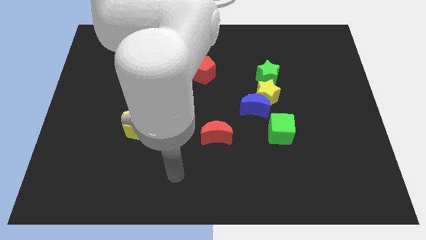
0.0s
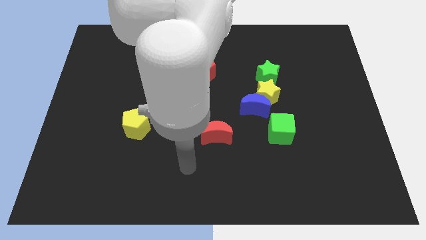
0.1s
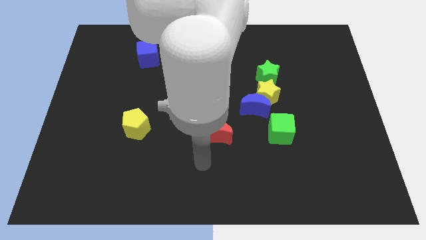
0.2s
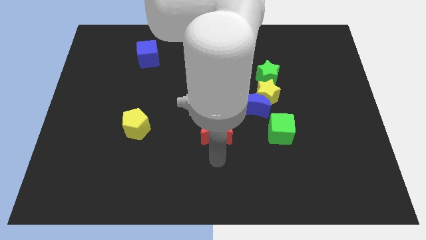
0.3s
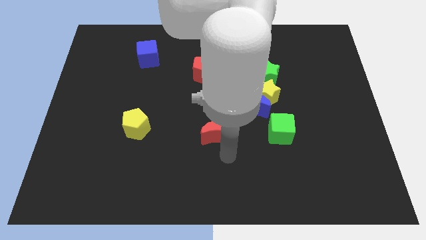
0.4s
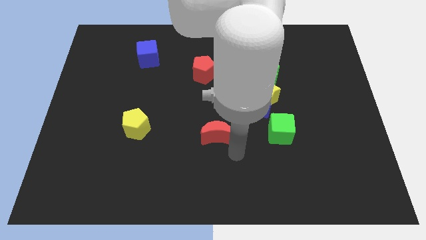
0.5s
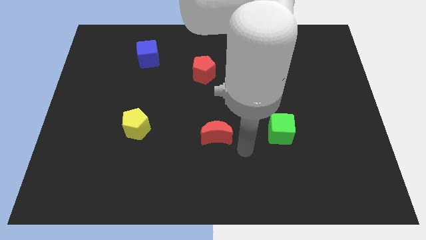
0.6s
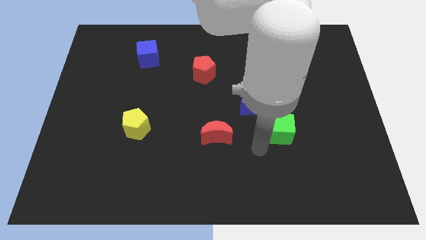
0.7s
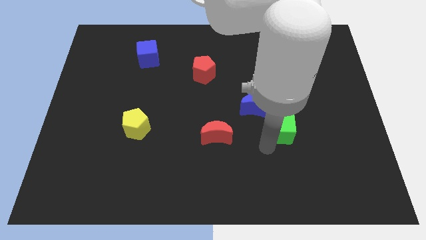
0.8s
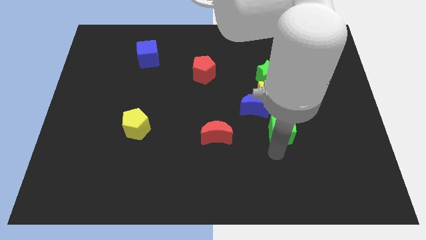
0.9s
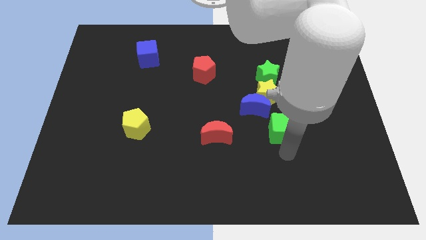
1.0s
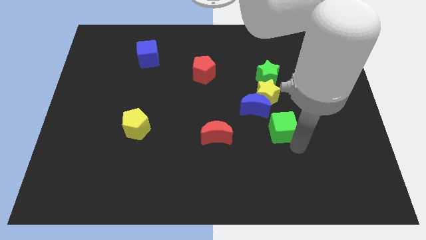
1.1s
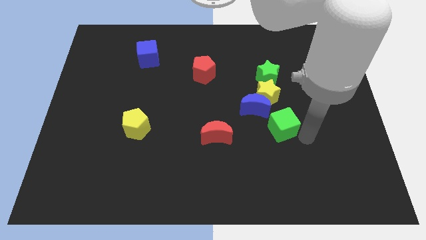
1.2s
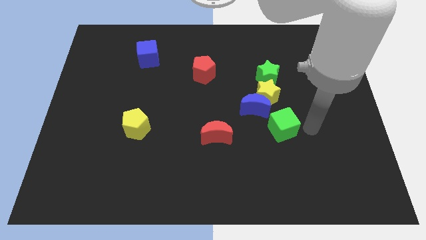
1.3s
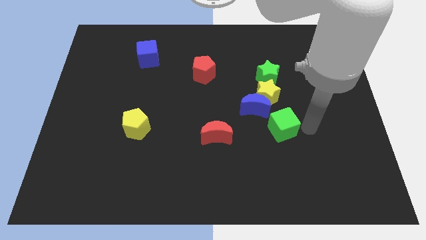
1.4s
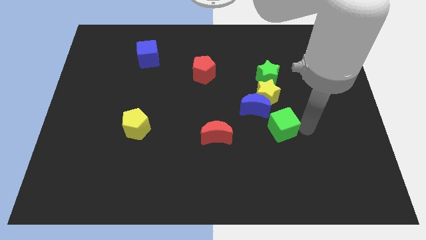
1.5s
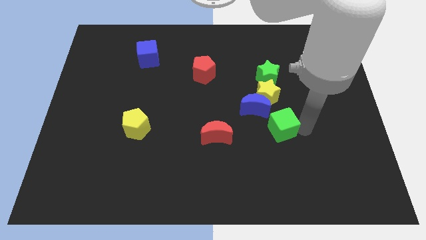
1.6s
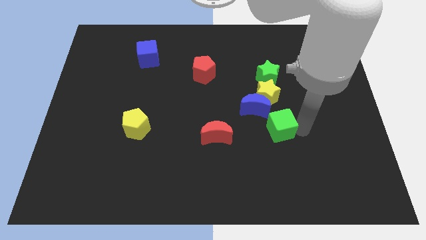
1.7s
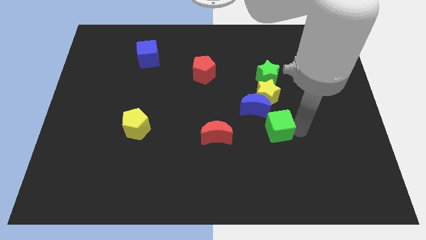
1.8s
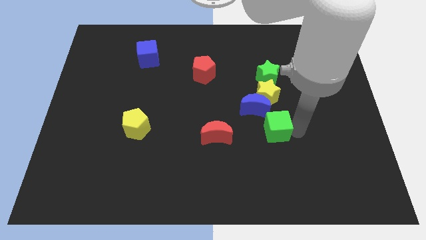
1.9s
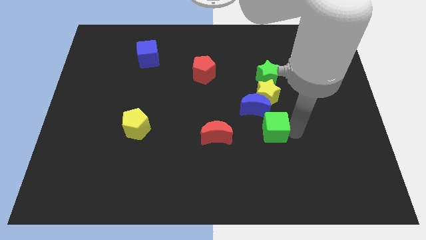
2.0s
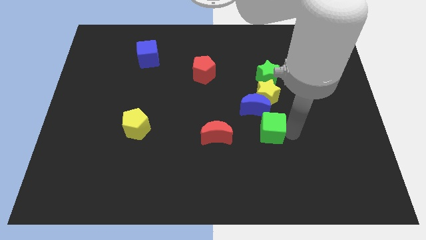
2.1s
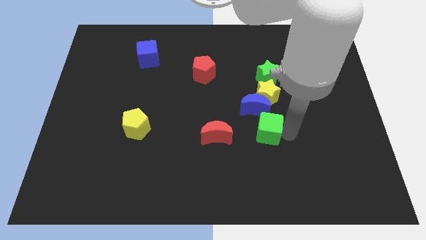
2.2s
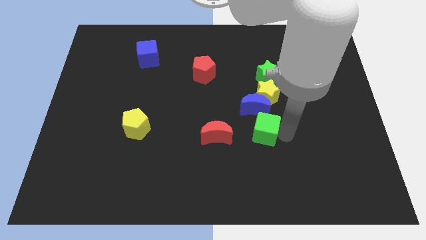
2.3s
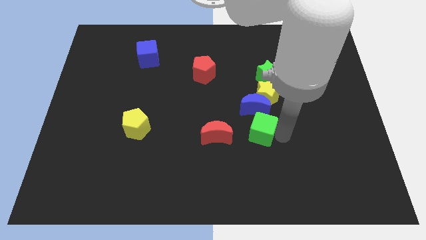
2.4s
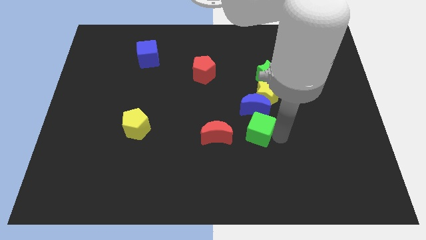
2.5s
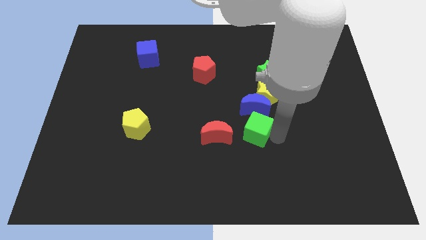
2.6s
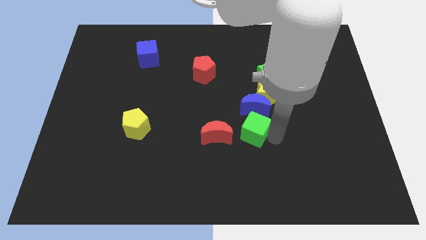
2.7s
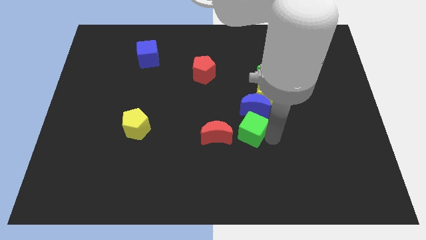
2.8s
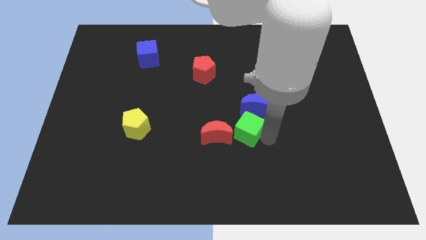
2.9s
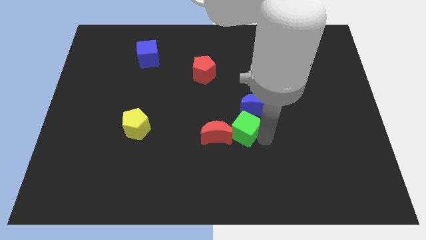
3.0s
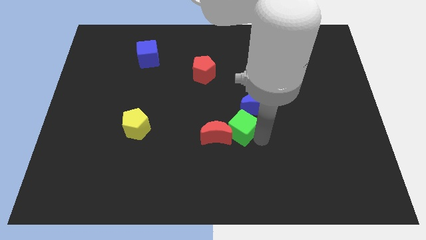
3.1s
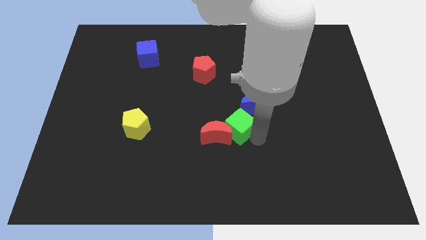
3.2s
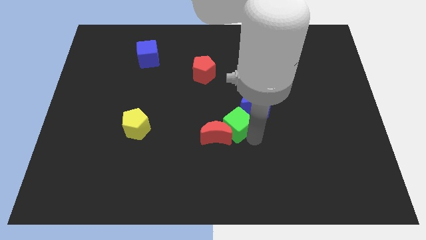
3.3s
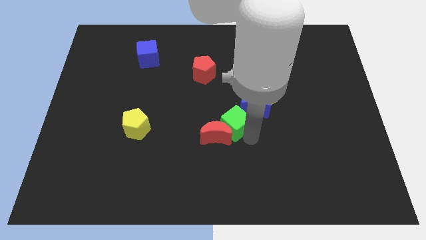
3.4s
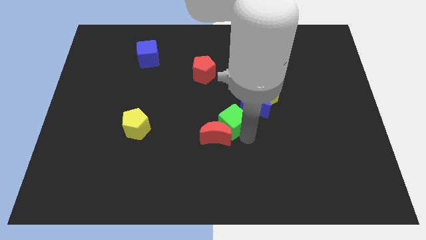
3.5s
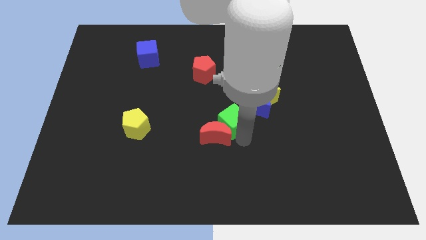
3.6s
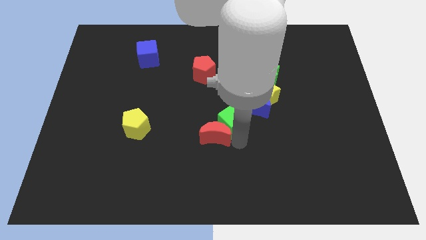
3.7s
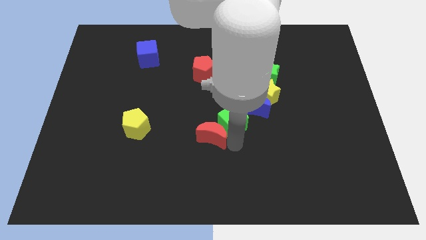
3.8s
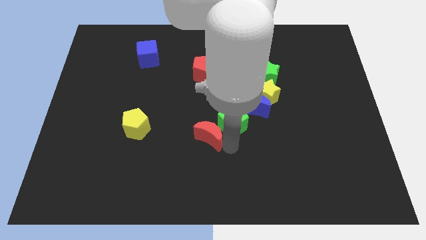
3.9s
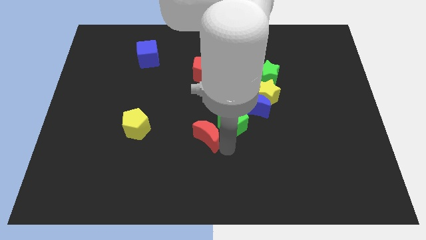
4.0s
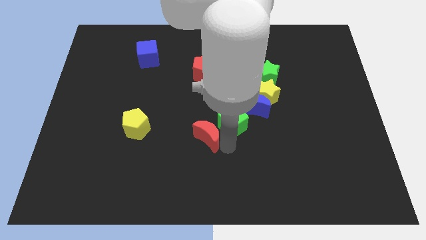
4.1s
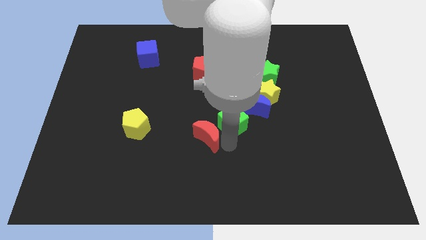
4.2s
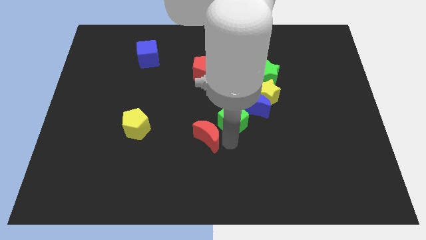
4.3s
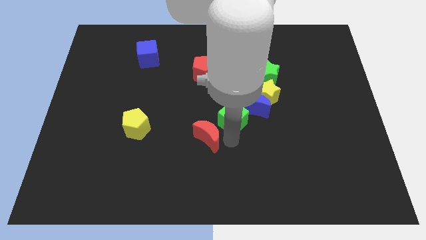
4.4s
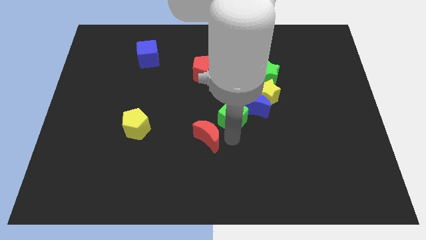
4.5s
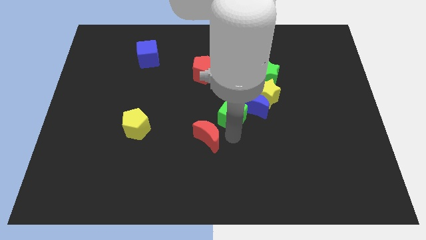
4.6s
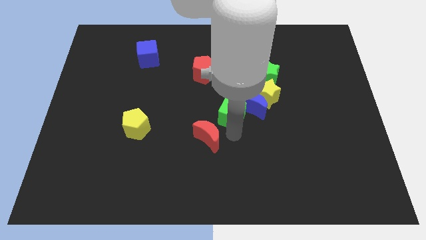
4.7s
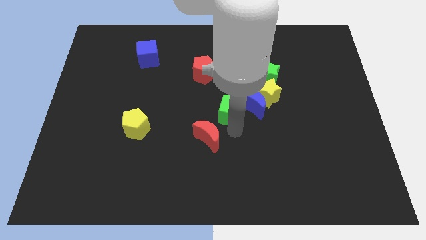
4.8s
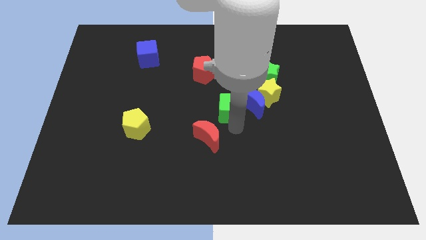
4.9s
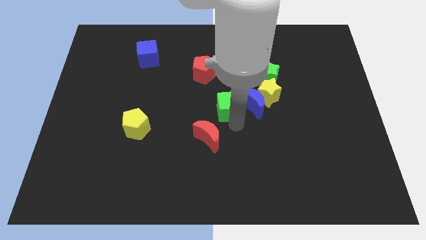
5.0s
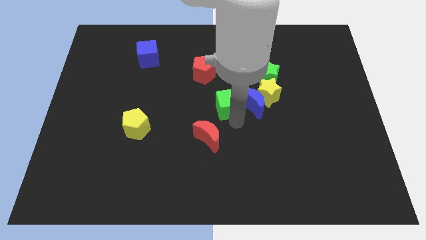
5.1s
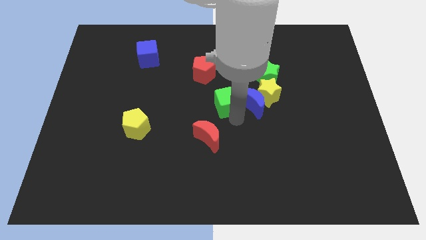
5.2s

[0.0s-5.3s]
put the green cube to the bottom right side of the red pentagon

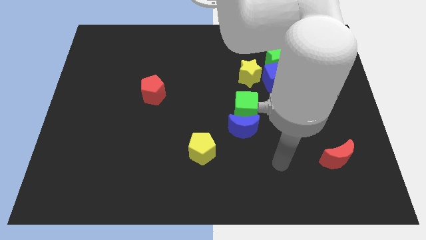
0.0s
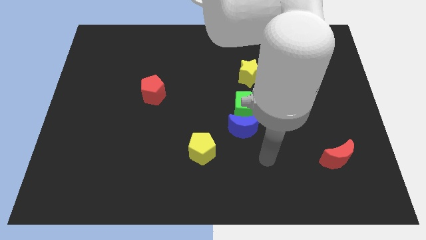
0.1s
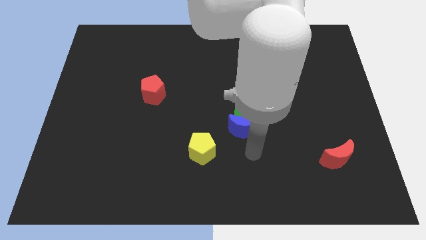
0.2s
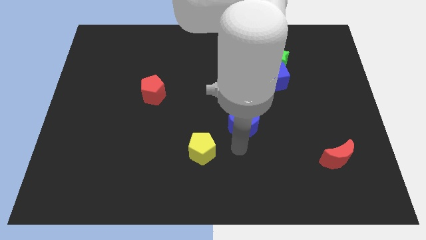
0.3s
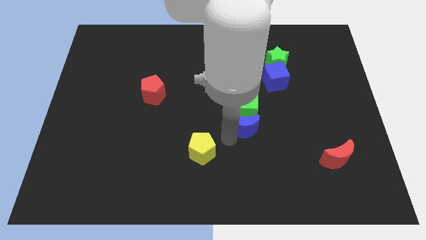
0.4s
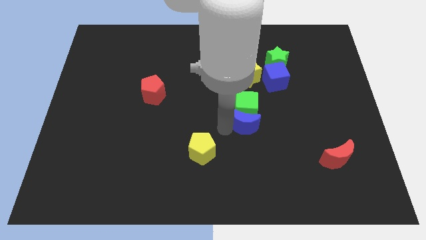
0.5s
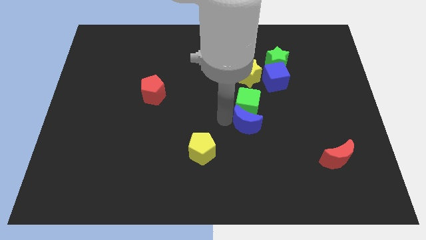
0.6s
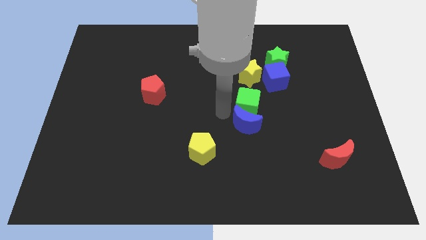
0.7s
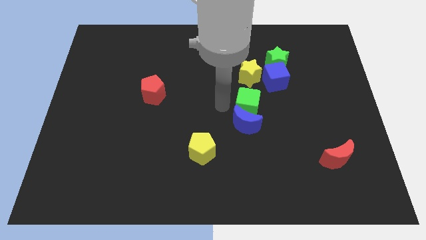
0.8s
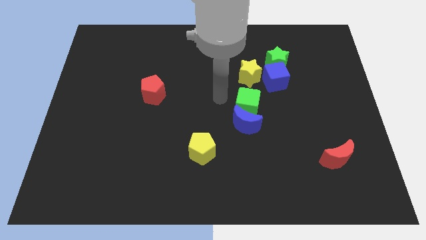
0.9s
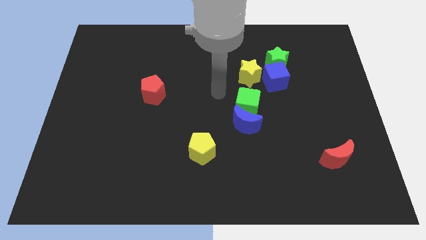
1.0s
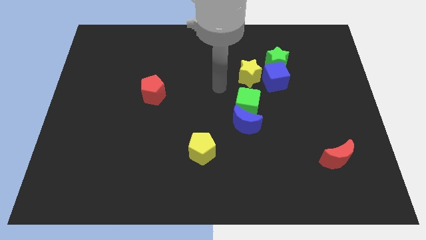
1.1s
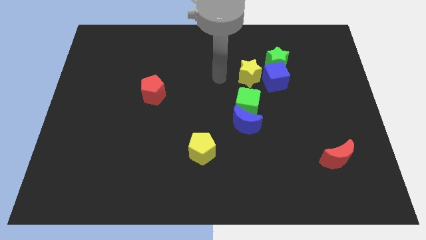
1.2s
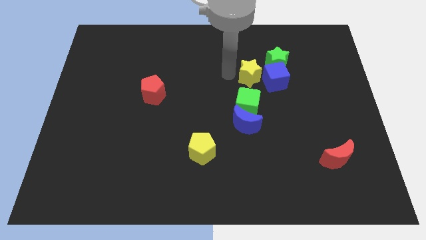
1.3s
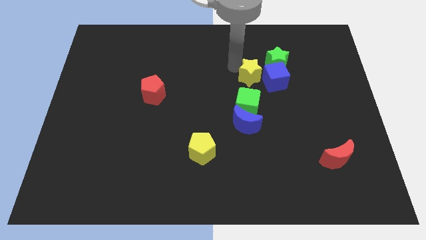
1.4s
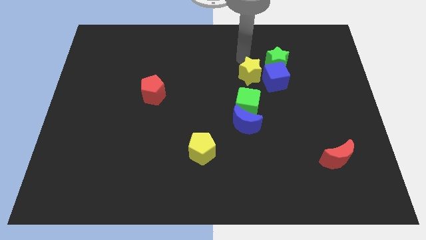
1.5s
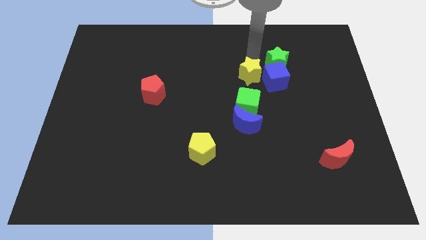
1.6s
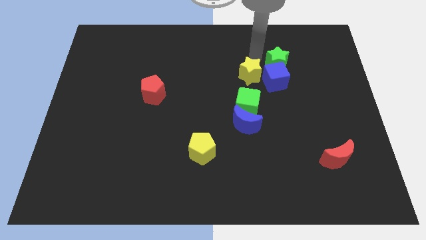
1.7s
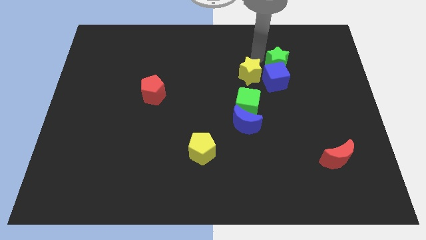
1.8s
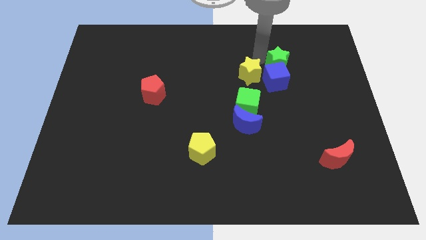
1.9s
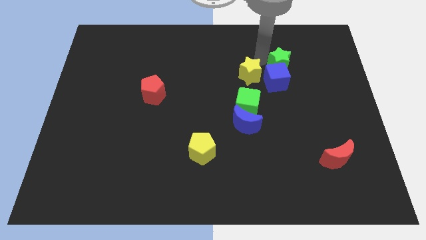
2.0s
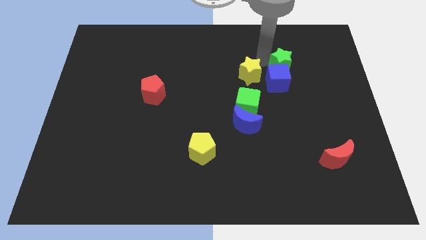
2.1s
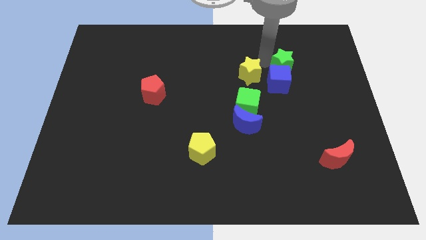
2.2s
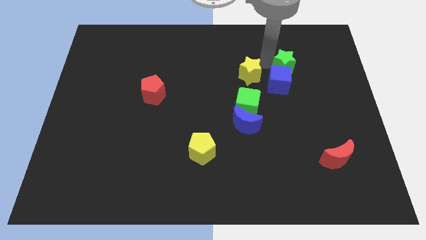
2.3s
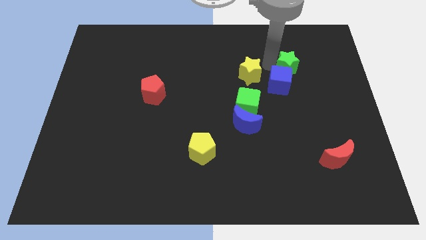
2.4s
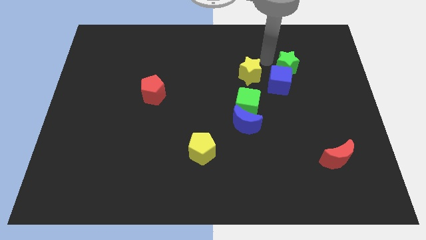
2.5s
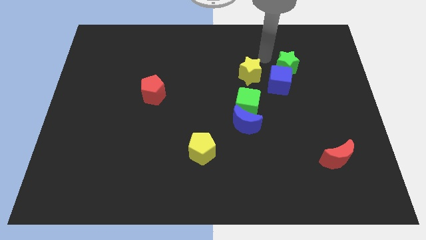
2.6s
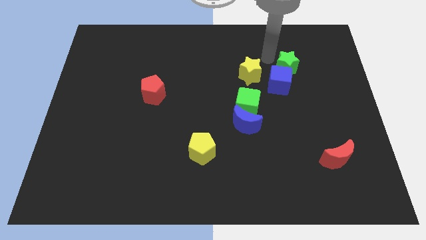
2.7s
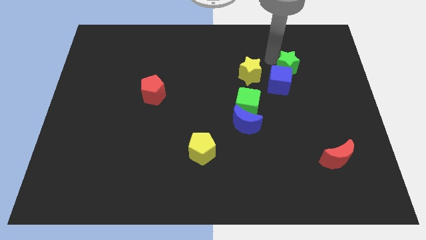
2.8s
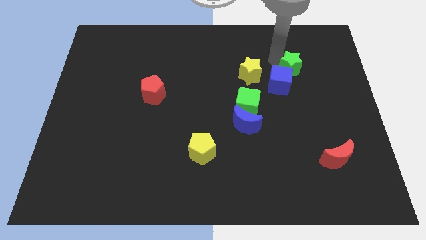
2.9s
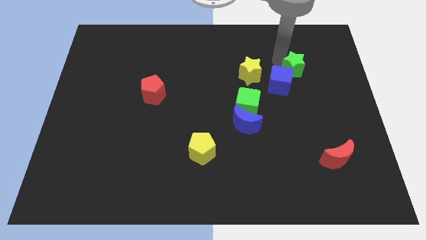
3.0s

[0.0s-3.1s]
slide the green star to the right of the blue cube
